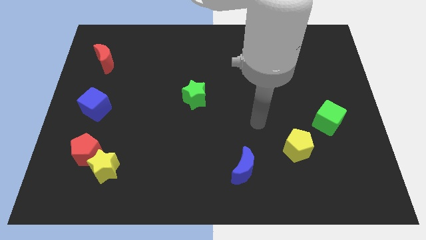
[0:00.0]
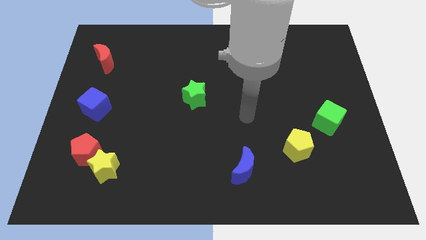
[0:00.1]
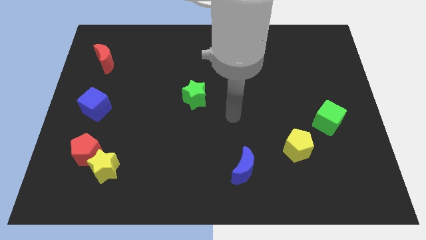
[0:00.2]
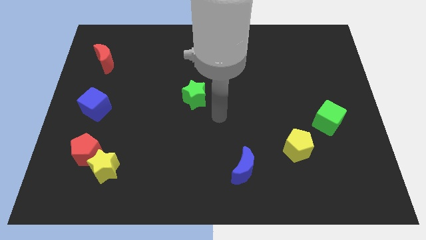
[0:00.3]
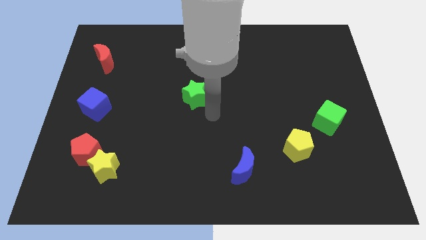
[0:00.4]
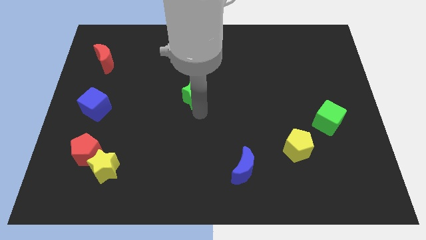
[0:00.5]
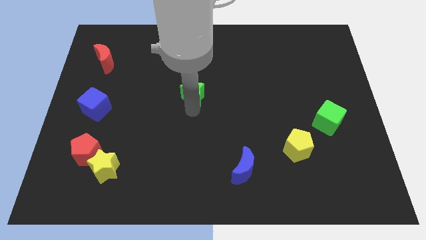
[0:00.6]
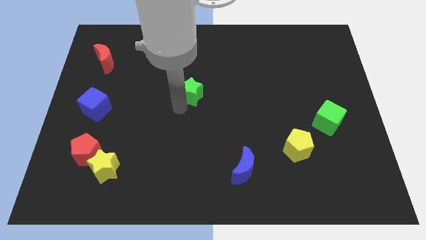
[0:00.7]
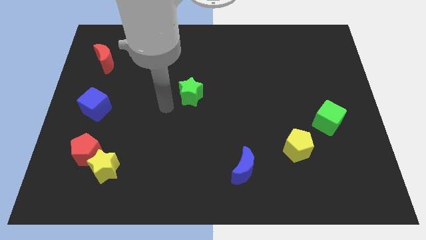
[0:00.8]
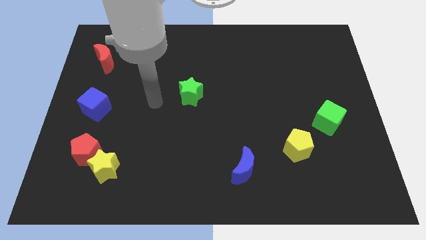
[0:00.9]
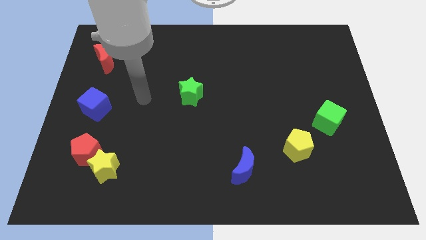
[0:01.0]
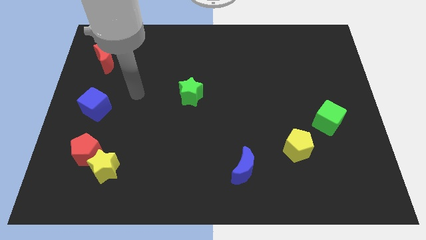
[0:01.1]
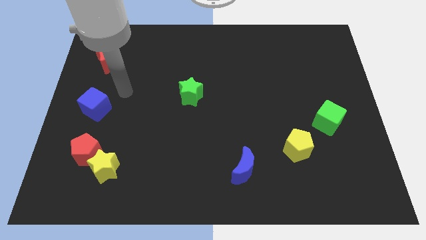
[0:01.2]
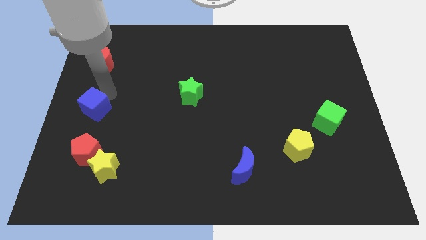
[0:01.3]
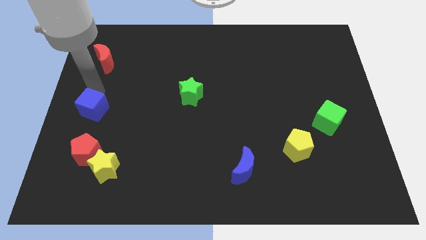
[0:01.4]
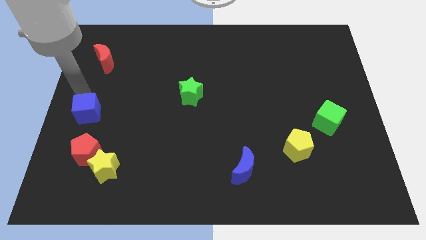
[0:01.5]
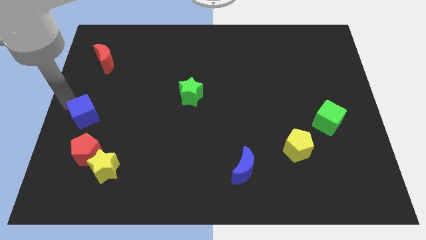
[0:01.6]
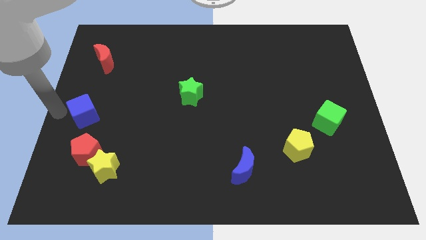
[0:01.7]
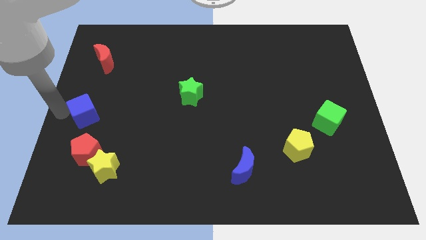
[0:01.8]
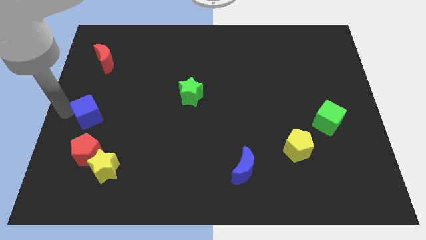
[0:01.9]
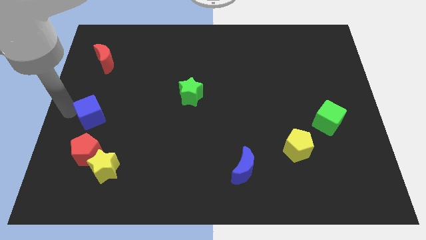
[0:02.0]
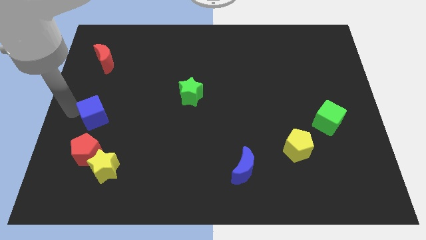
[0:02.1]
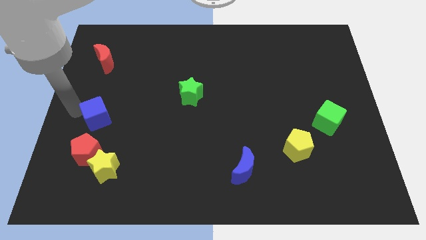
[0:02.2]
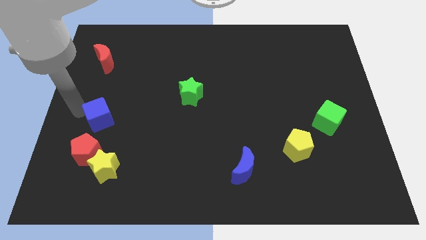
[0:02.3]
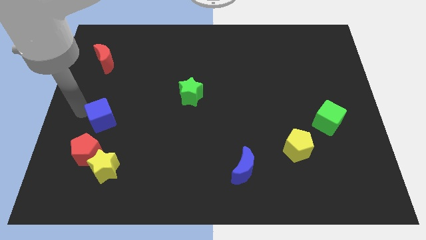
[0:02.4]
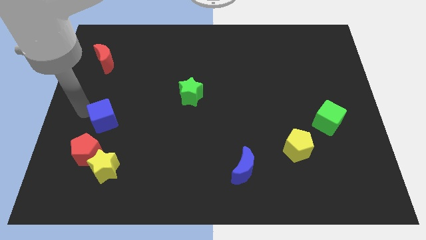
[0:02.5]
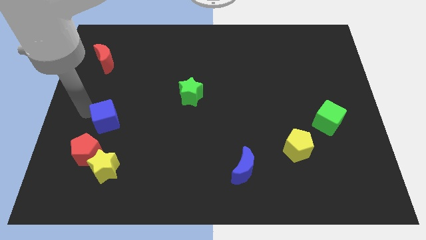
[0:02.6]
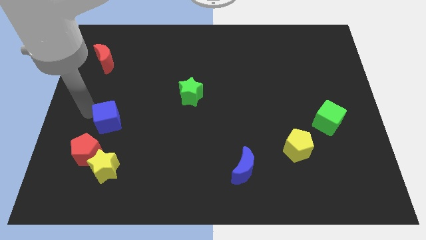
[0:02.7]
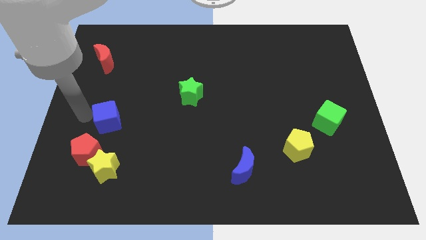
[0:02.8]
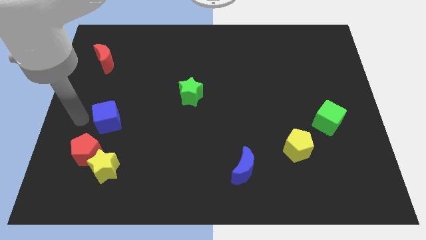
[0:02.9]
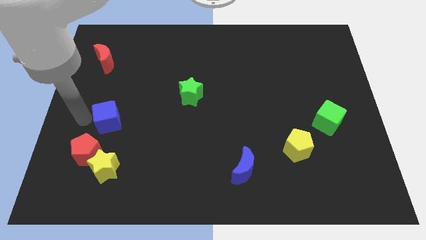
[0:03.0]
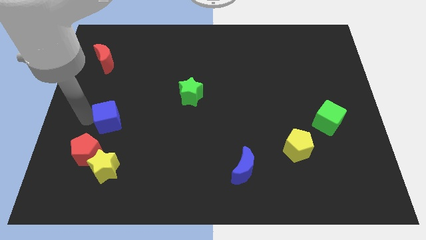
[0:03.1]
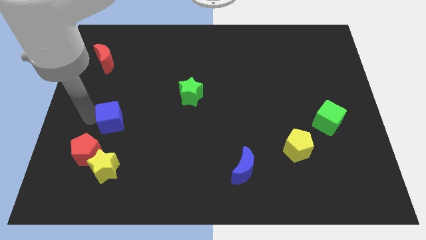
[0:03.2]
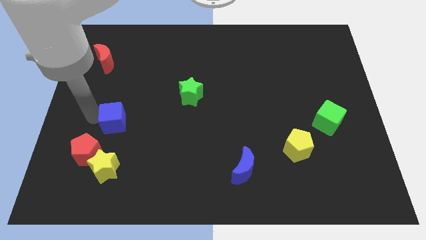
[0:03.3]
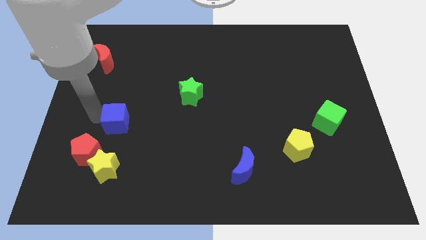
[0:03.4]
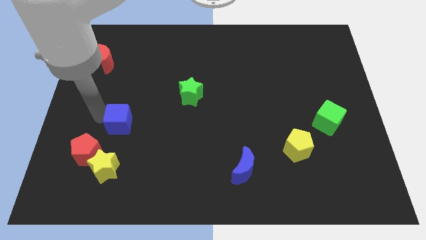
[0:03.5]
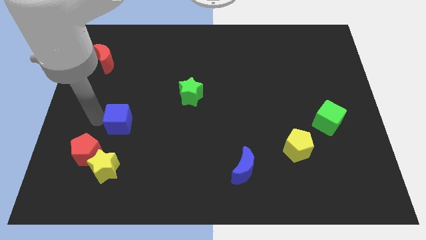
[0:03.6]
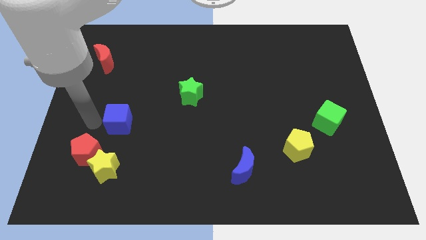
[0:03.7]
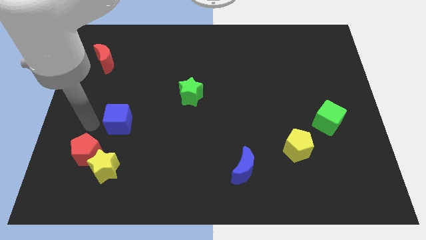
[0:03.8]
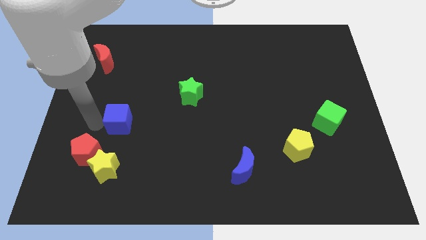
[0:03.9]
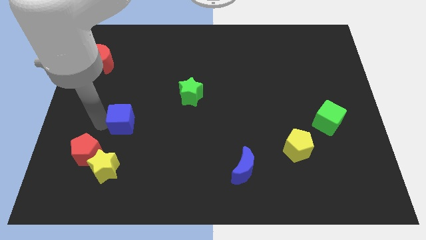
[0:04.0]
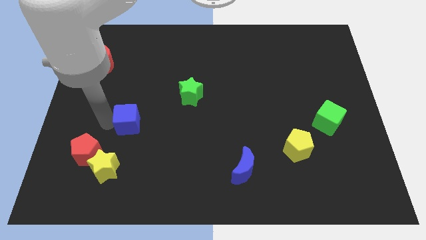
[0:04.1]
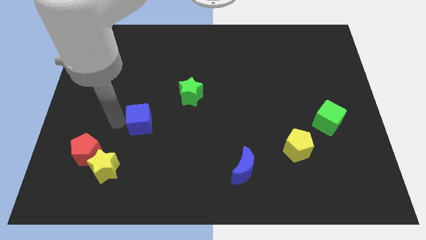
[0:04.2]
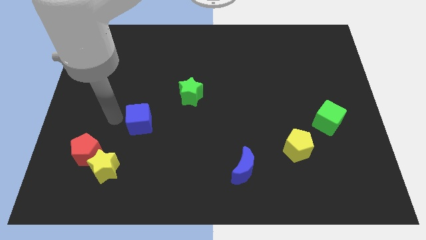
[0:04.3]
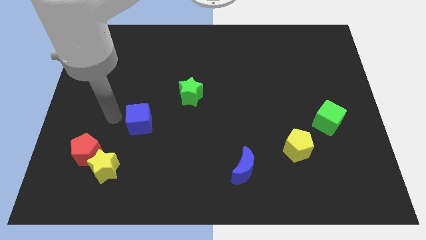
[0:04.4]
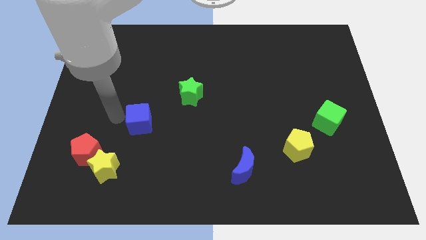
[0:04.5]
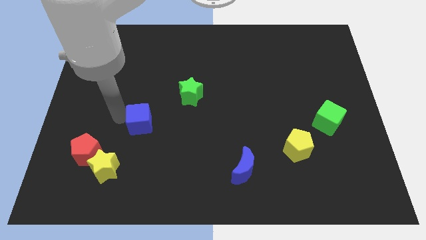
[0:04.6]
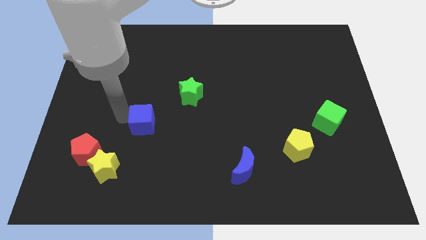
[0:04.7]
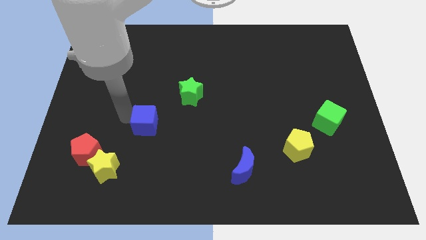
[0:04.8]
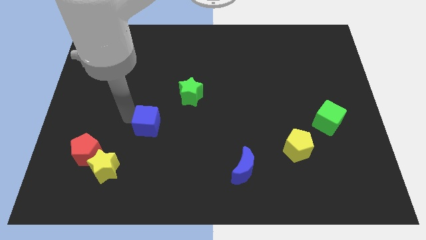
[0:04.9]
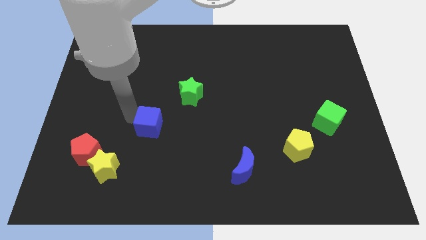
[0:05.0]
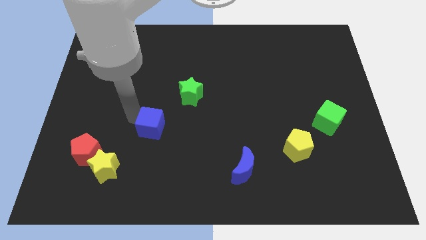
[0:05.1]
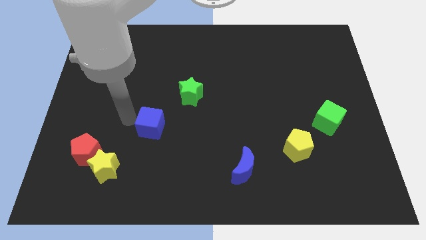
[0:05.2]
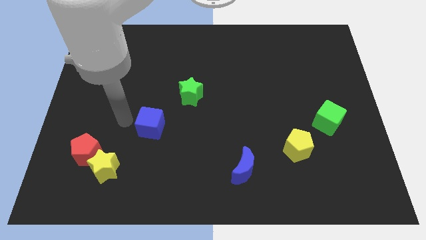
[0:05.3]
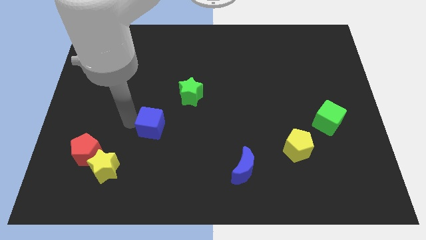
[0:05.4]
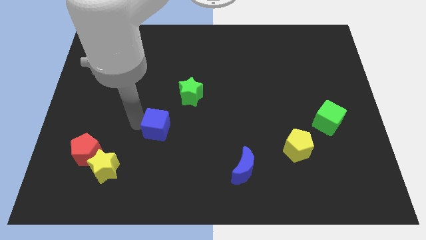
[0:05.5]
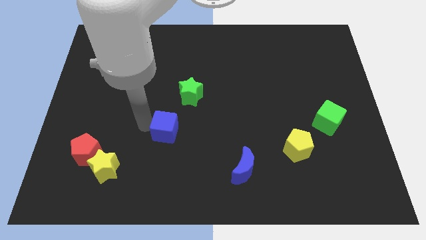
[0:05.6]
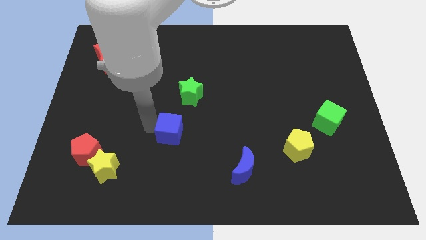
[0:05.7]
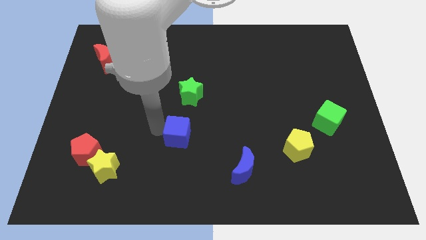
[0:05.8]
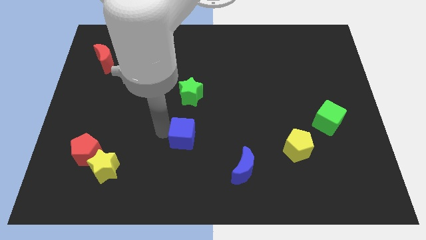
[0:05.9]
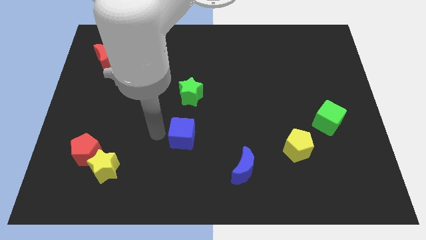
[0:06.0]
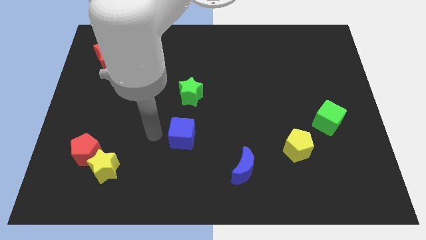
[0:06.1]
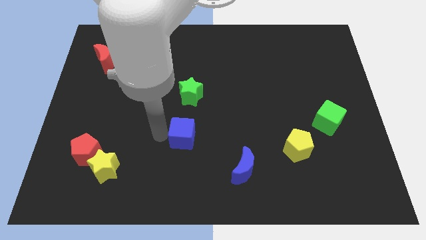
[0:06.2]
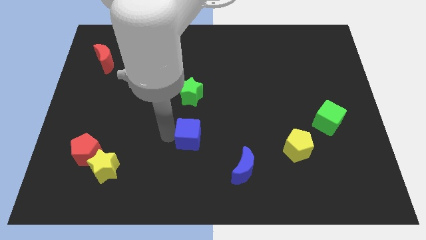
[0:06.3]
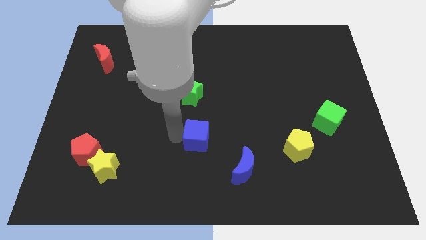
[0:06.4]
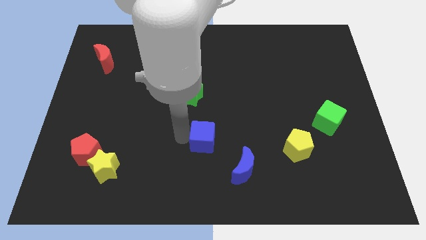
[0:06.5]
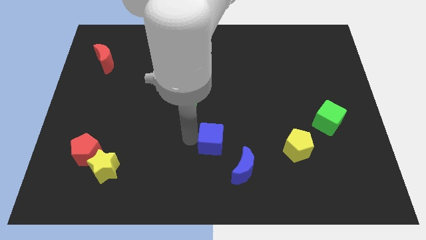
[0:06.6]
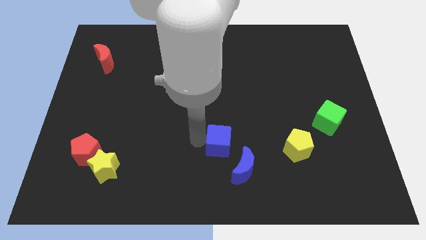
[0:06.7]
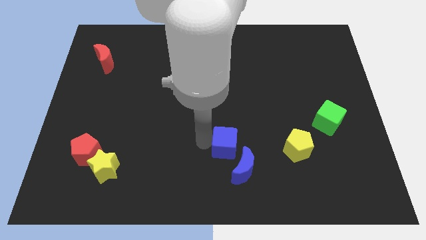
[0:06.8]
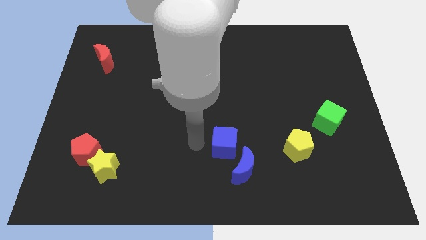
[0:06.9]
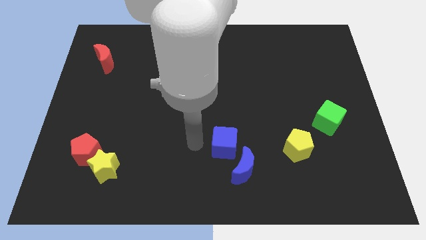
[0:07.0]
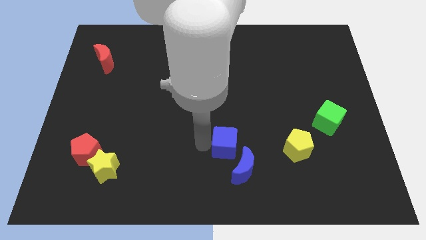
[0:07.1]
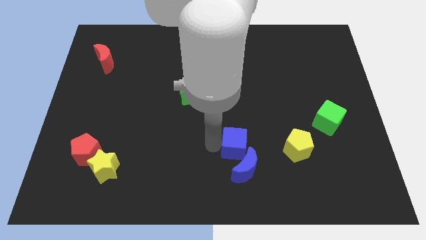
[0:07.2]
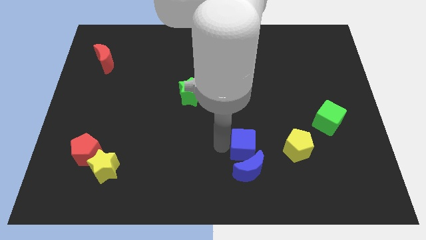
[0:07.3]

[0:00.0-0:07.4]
push the blue cube to the top right of the blue moon
